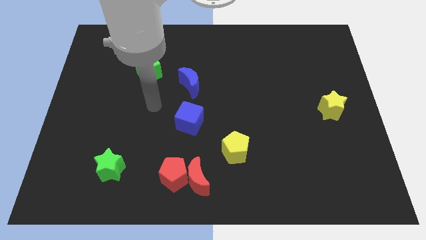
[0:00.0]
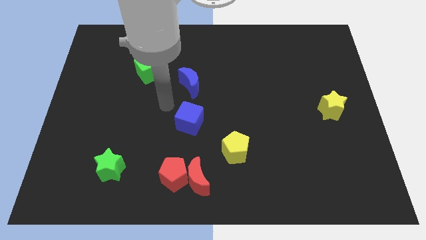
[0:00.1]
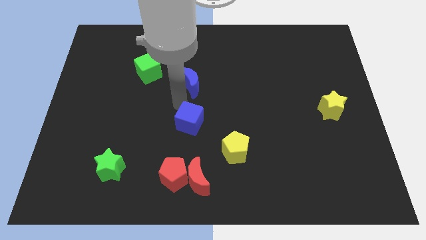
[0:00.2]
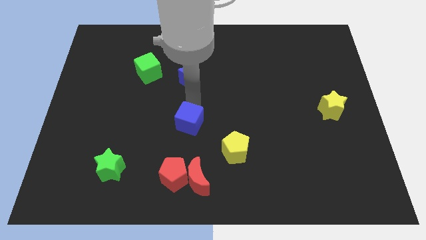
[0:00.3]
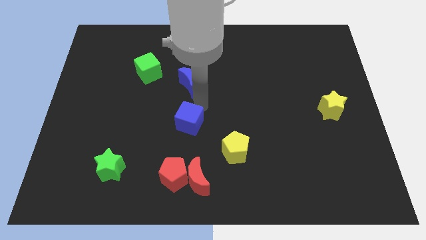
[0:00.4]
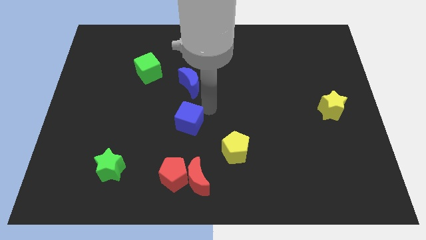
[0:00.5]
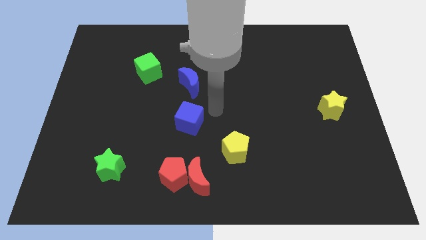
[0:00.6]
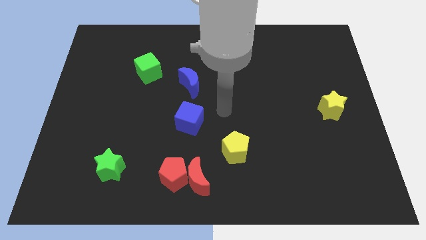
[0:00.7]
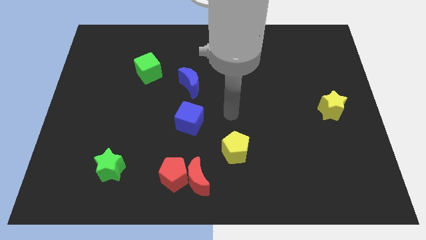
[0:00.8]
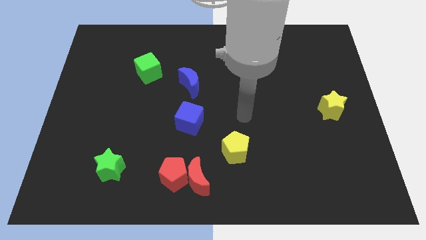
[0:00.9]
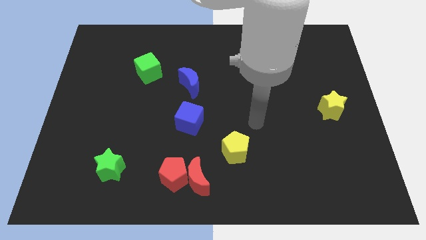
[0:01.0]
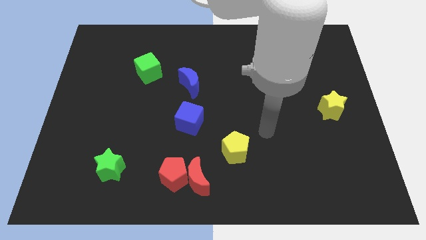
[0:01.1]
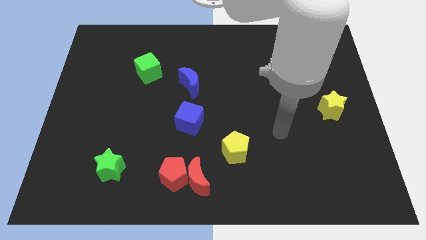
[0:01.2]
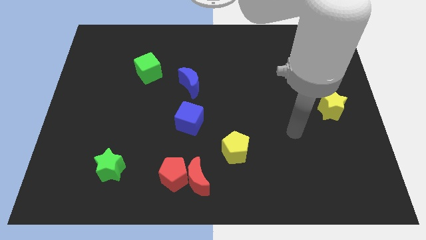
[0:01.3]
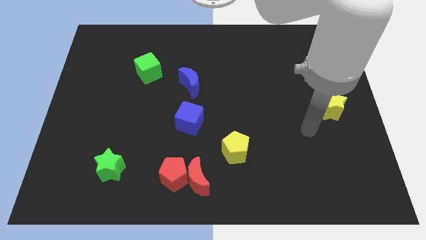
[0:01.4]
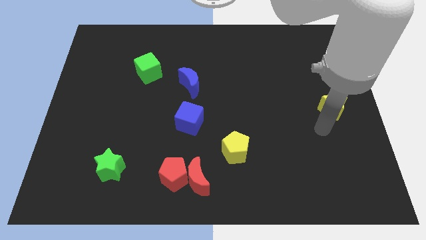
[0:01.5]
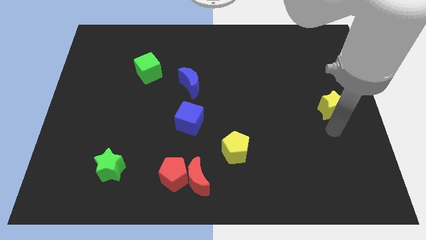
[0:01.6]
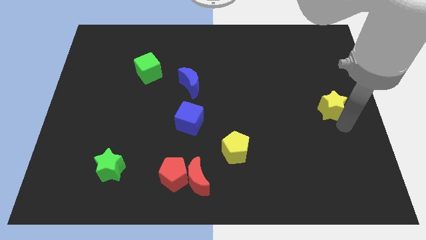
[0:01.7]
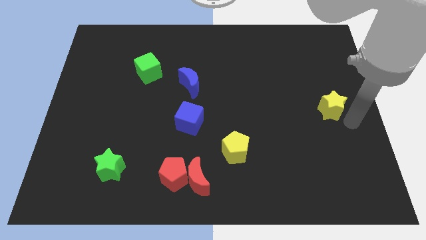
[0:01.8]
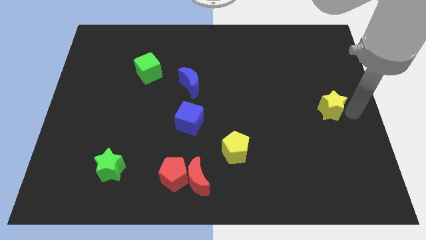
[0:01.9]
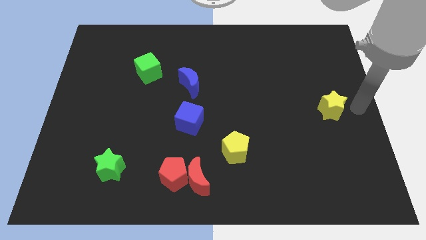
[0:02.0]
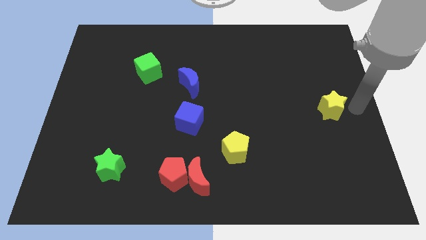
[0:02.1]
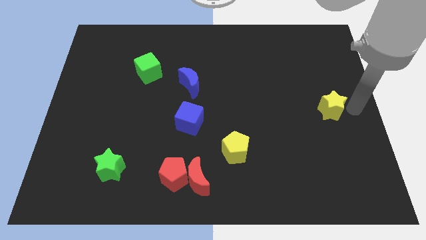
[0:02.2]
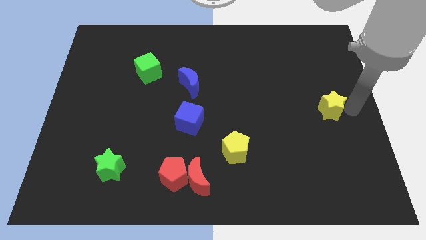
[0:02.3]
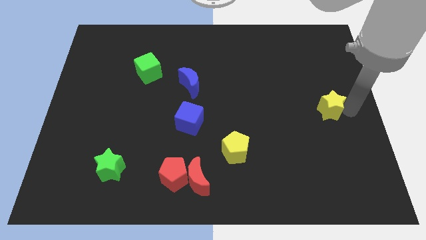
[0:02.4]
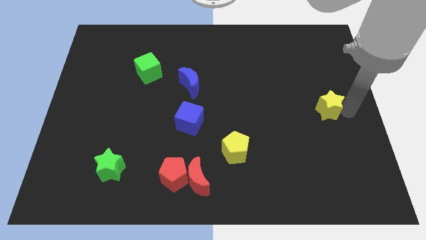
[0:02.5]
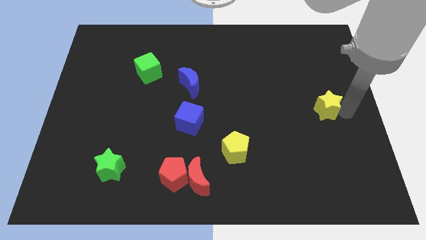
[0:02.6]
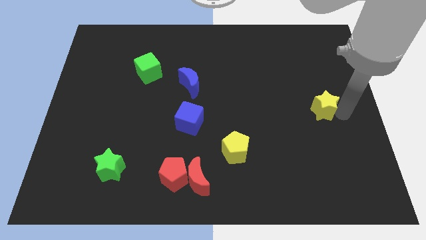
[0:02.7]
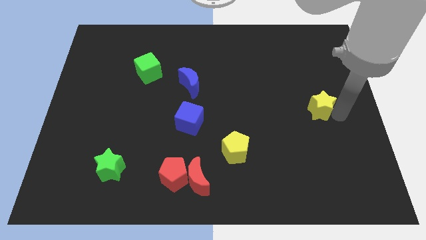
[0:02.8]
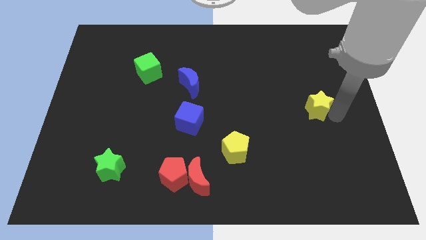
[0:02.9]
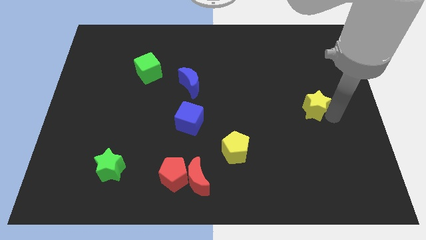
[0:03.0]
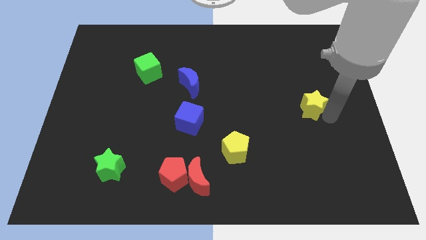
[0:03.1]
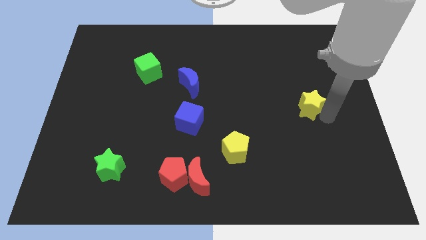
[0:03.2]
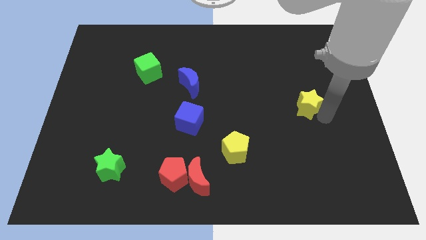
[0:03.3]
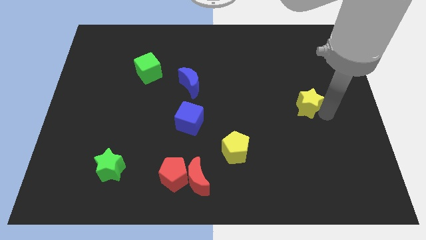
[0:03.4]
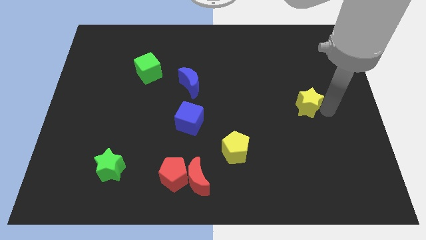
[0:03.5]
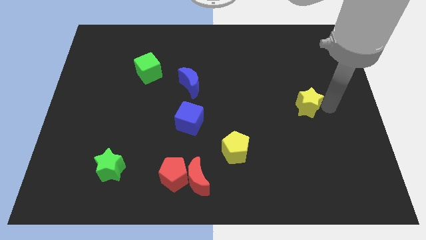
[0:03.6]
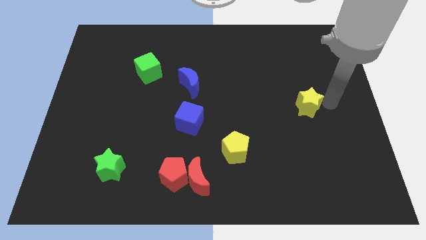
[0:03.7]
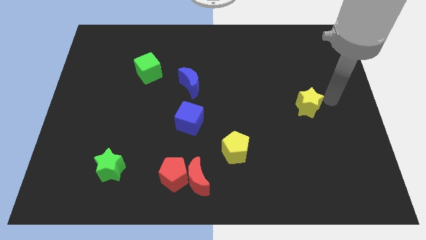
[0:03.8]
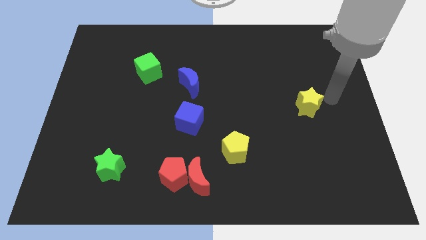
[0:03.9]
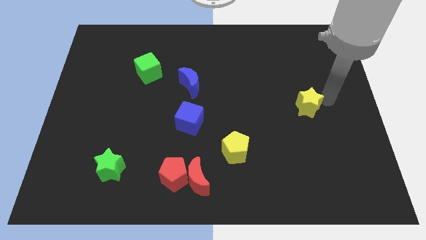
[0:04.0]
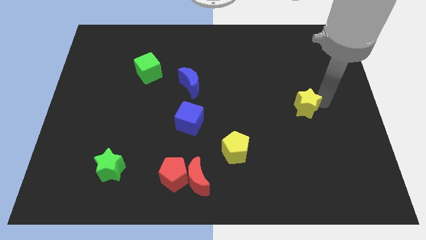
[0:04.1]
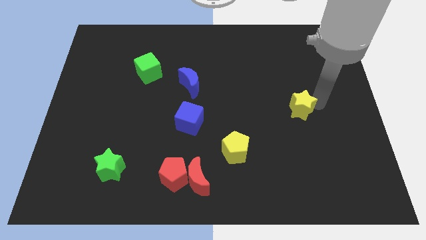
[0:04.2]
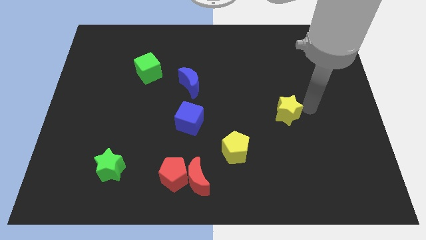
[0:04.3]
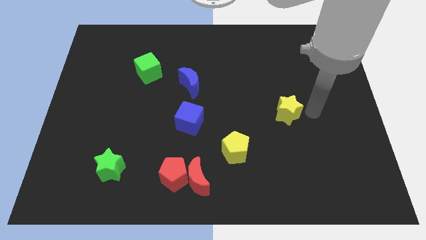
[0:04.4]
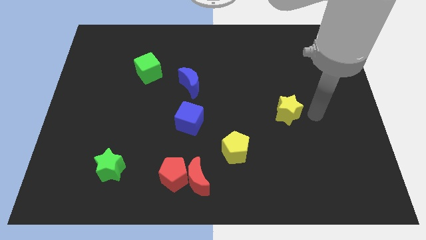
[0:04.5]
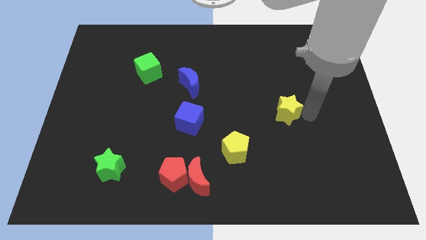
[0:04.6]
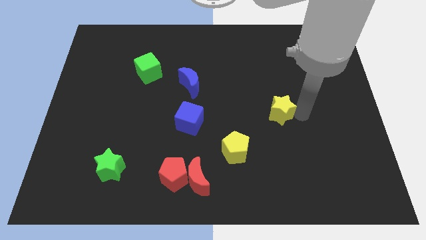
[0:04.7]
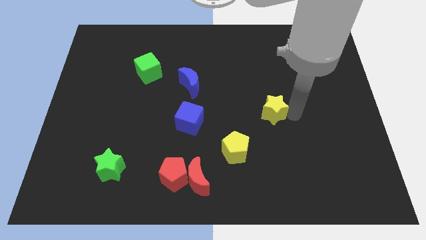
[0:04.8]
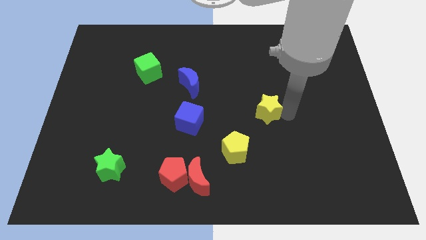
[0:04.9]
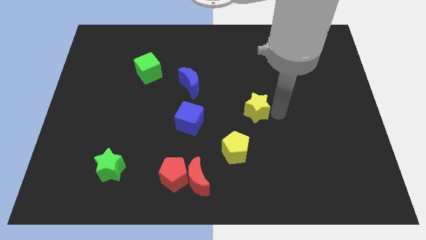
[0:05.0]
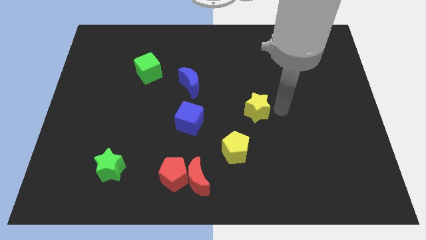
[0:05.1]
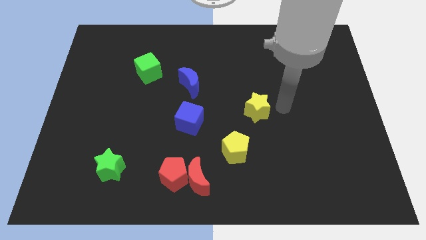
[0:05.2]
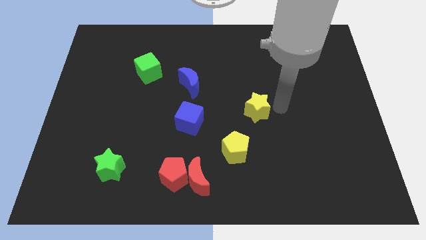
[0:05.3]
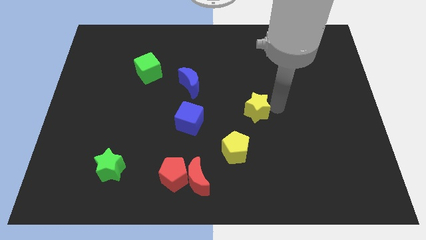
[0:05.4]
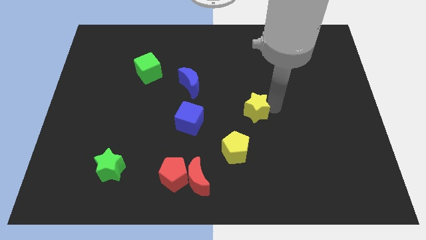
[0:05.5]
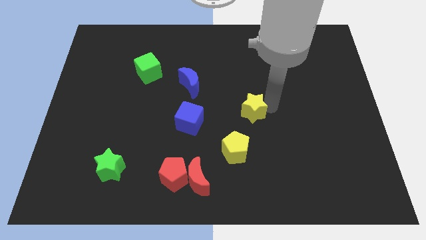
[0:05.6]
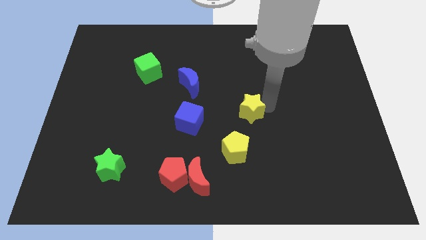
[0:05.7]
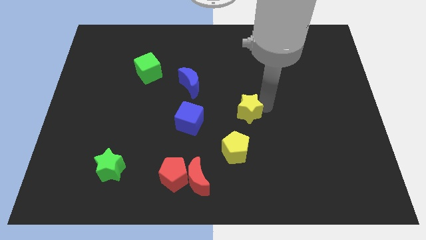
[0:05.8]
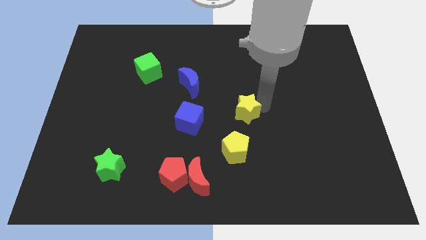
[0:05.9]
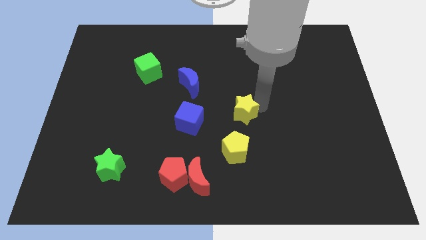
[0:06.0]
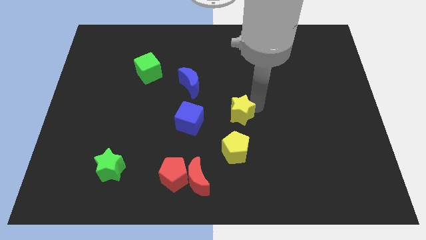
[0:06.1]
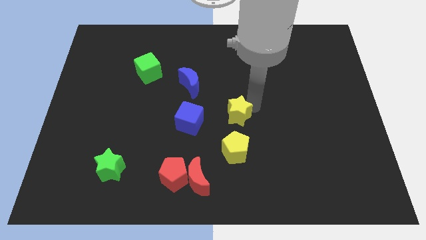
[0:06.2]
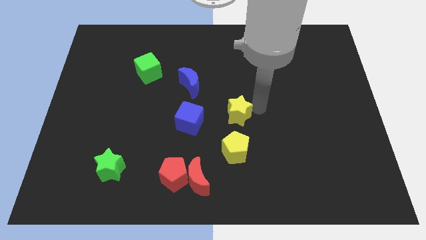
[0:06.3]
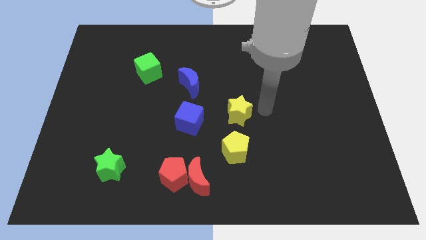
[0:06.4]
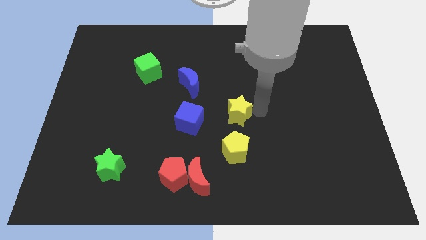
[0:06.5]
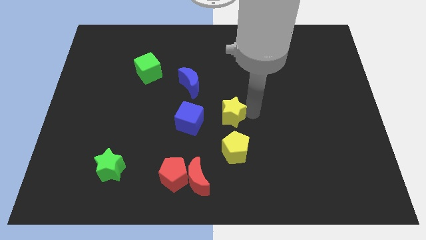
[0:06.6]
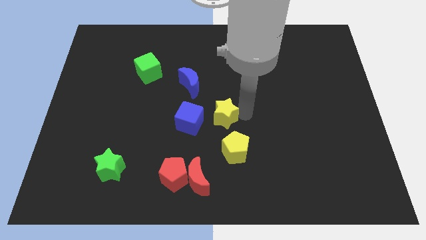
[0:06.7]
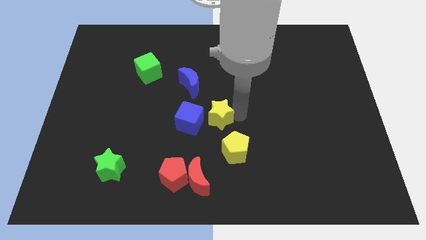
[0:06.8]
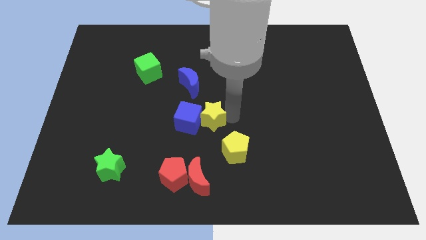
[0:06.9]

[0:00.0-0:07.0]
slide the yellow star next to the blue cube

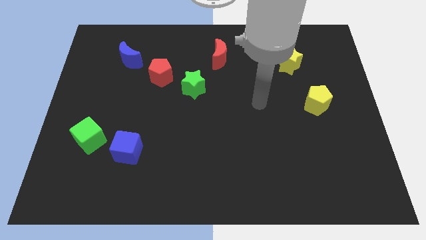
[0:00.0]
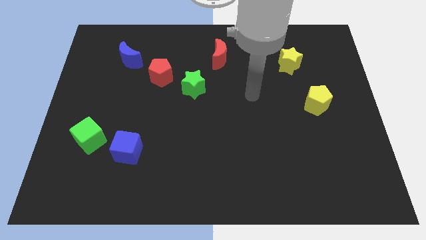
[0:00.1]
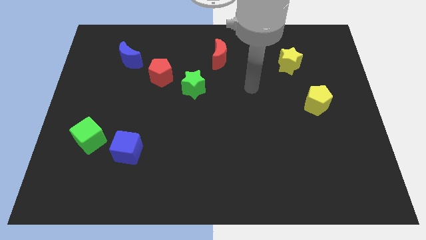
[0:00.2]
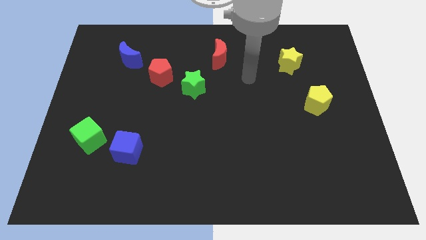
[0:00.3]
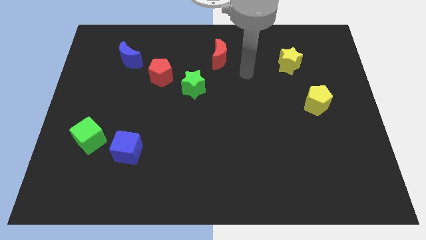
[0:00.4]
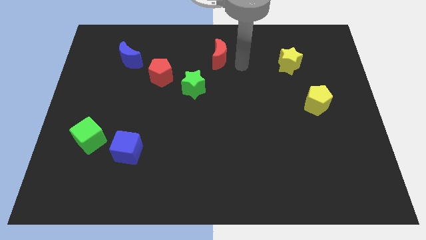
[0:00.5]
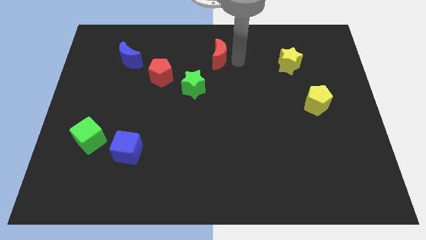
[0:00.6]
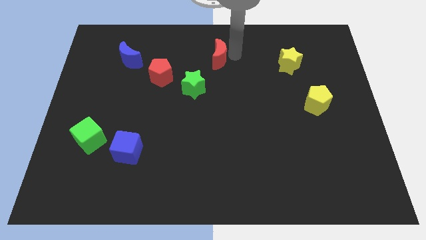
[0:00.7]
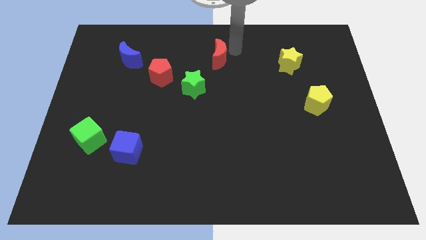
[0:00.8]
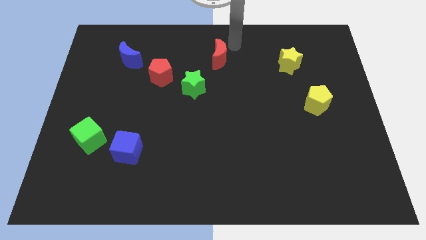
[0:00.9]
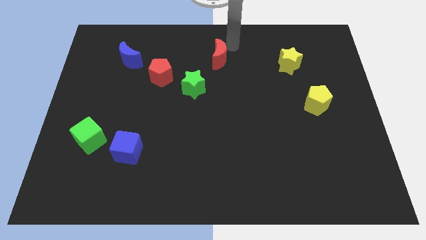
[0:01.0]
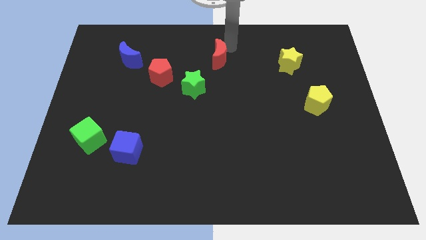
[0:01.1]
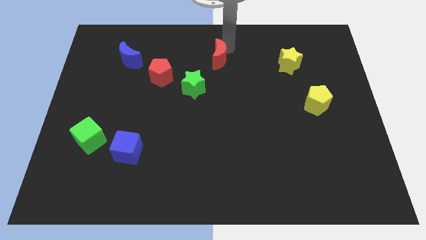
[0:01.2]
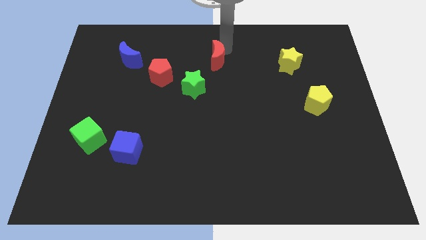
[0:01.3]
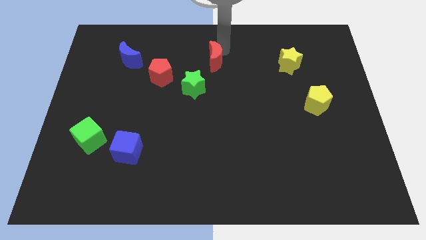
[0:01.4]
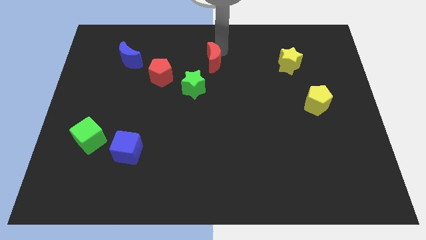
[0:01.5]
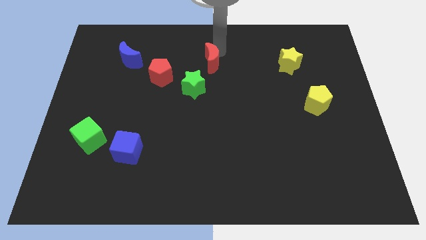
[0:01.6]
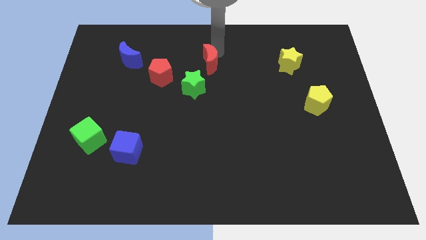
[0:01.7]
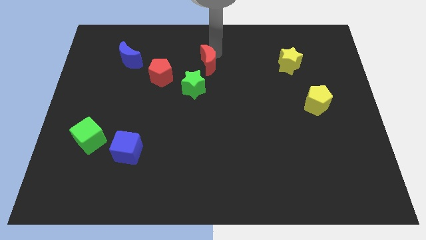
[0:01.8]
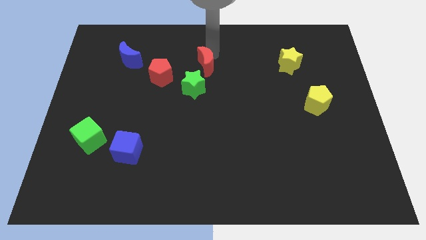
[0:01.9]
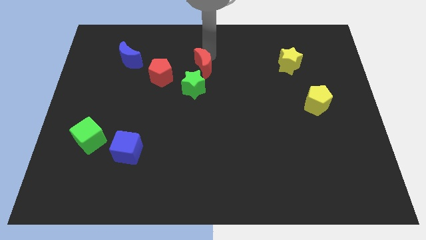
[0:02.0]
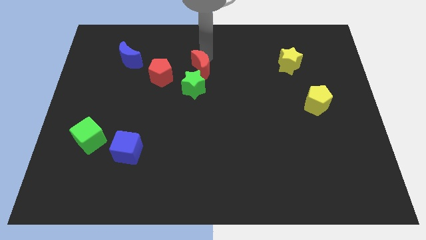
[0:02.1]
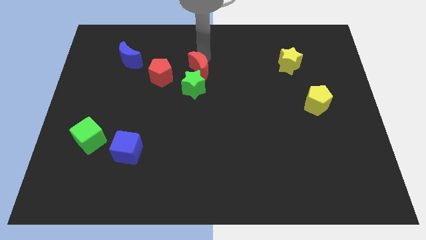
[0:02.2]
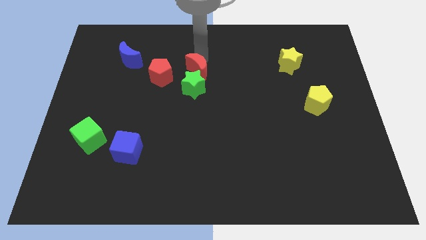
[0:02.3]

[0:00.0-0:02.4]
push the red moon close to the green star
